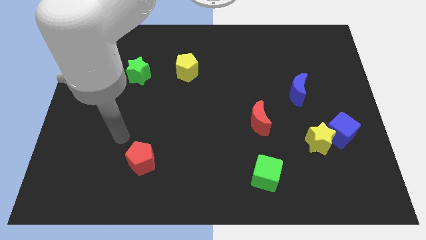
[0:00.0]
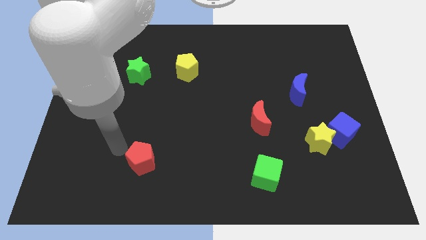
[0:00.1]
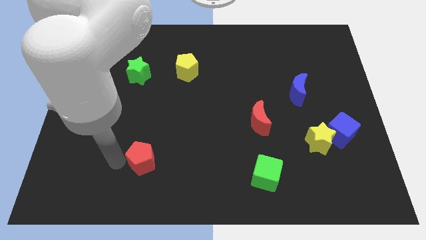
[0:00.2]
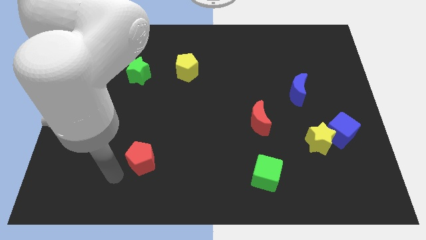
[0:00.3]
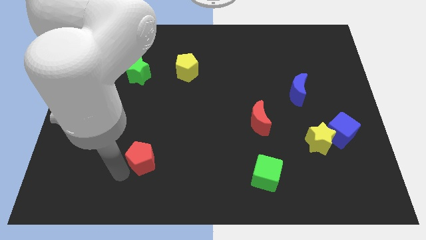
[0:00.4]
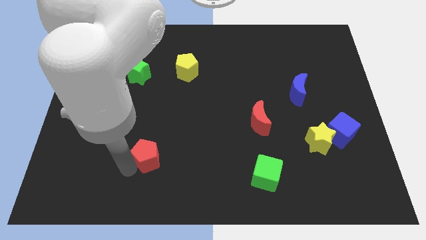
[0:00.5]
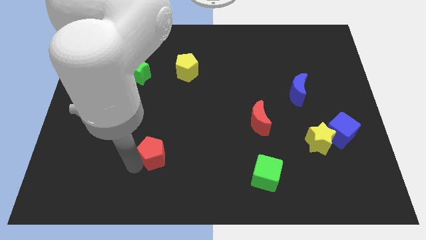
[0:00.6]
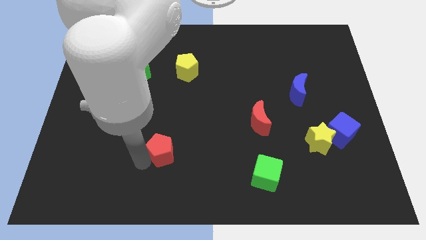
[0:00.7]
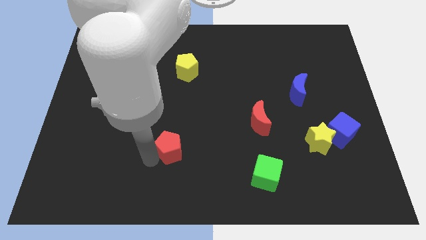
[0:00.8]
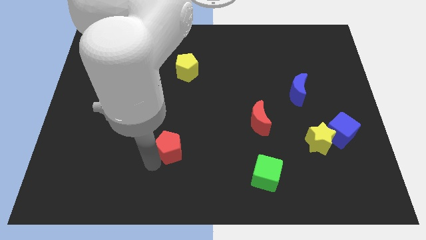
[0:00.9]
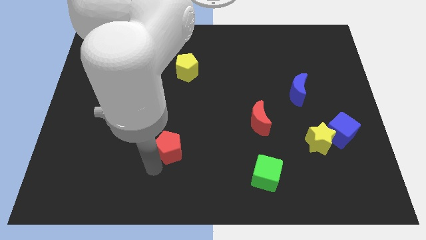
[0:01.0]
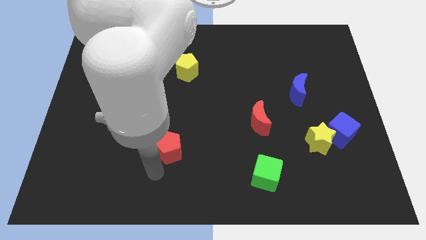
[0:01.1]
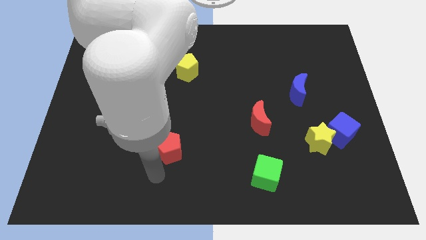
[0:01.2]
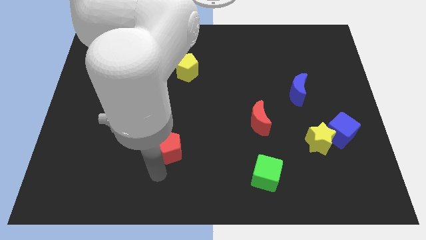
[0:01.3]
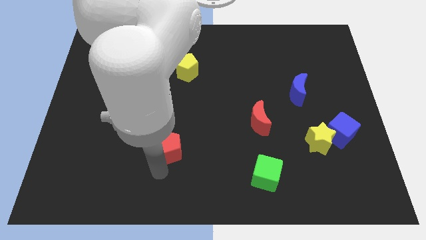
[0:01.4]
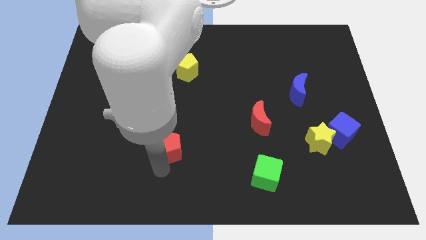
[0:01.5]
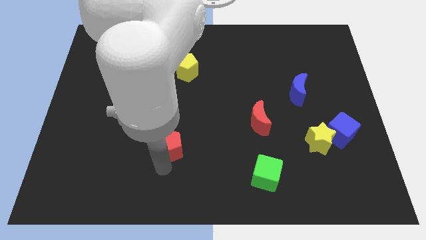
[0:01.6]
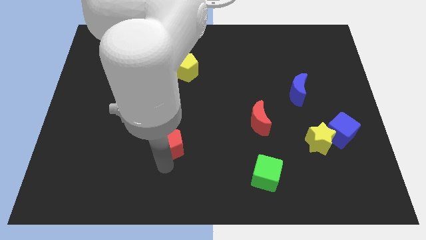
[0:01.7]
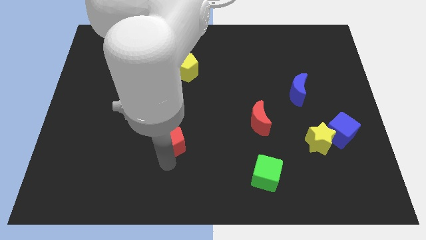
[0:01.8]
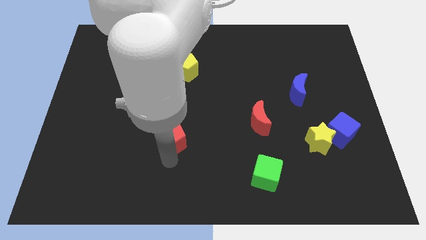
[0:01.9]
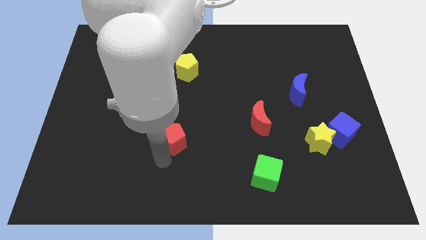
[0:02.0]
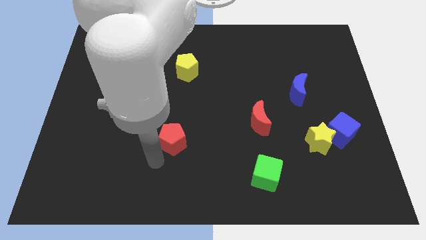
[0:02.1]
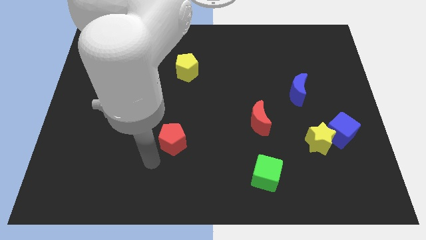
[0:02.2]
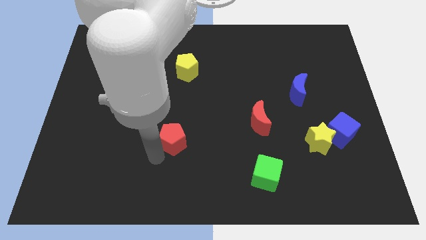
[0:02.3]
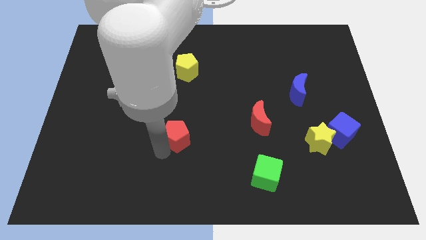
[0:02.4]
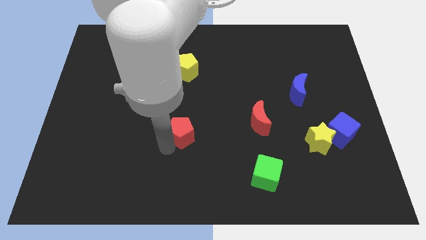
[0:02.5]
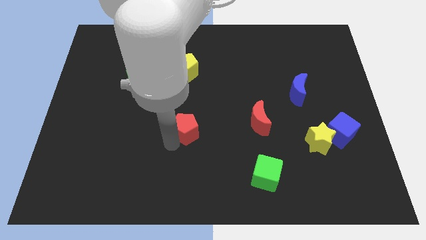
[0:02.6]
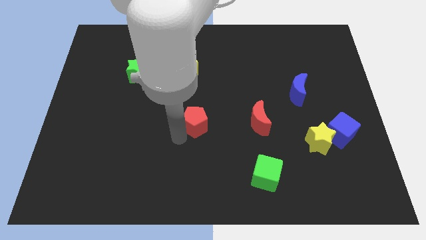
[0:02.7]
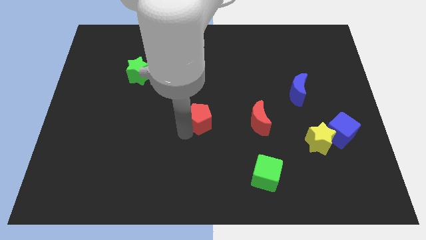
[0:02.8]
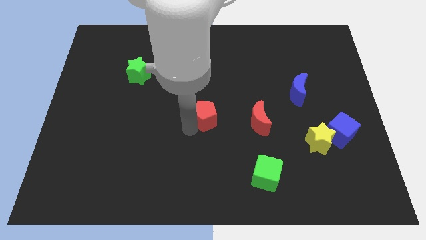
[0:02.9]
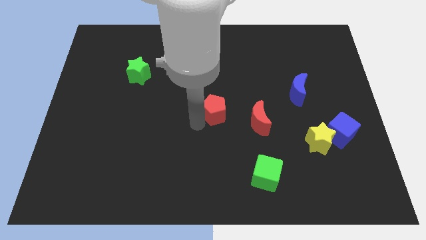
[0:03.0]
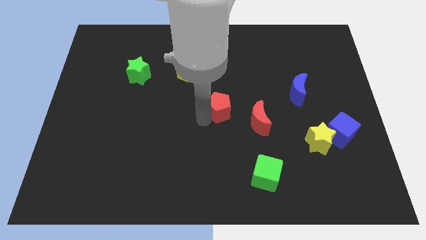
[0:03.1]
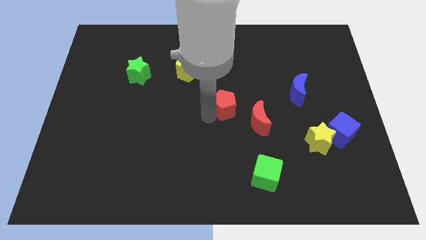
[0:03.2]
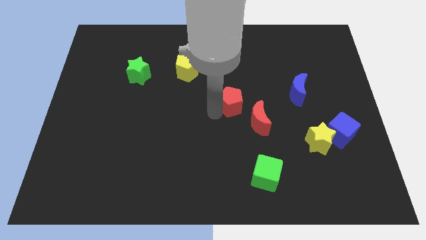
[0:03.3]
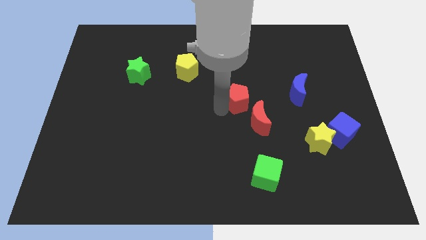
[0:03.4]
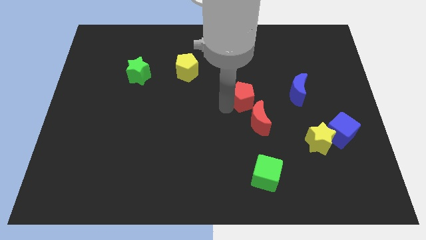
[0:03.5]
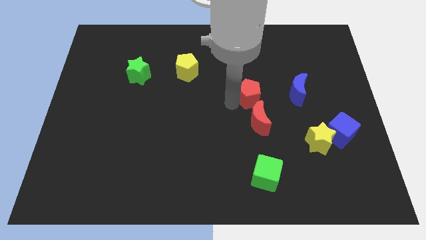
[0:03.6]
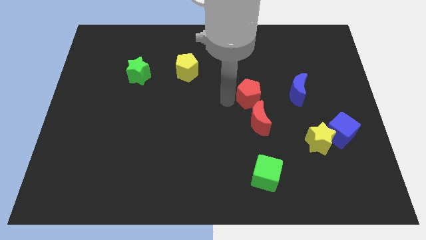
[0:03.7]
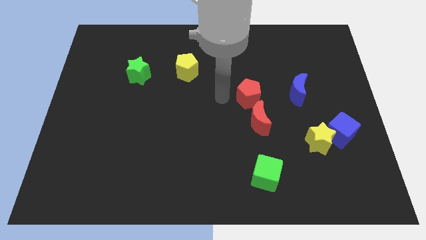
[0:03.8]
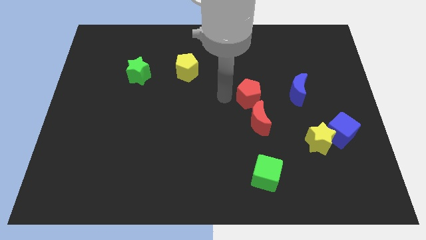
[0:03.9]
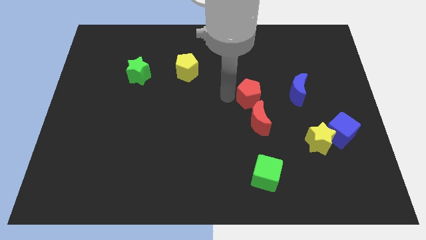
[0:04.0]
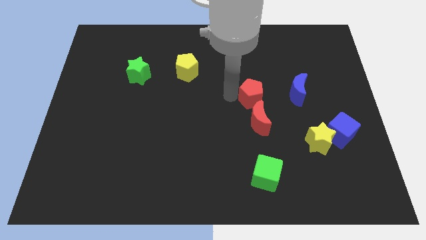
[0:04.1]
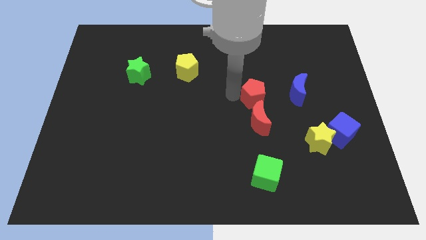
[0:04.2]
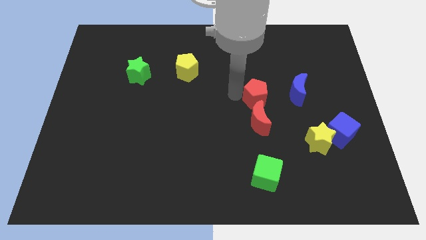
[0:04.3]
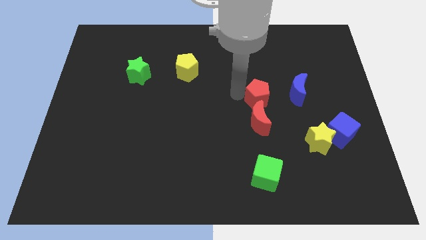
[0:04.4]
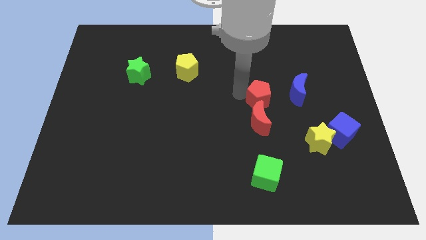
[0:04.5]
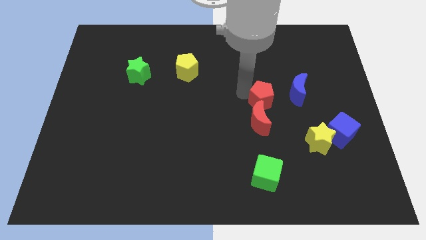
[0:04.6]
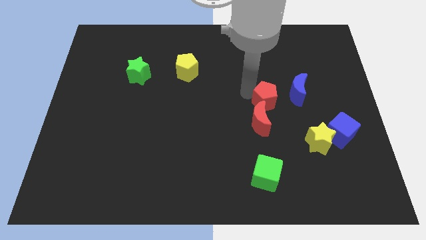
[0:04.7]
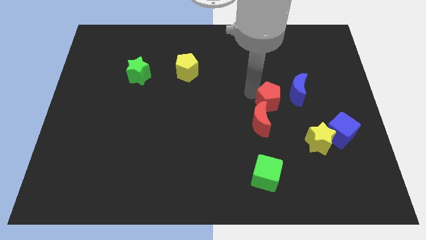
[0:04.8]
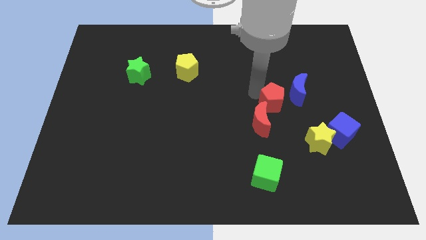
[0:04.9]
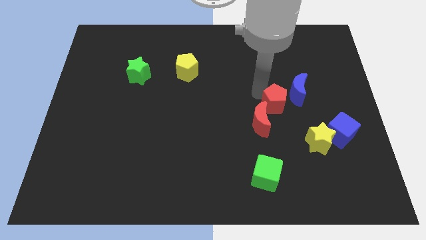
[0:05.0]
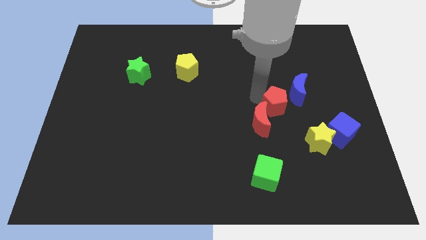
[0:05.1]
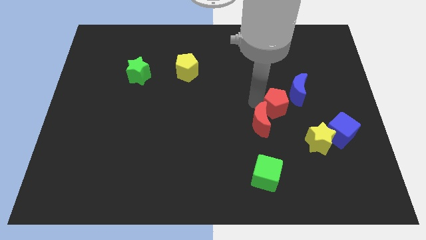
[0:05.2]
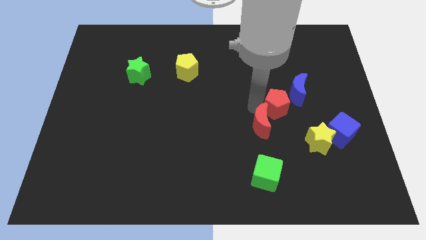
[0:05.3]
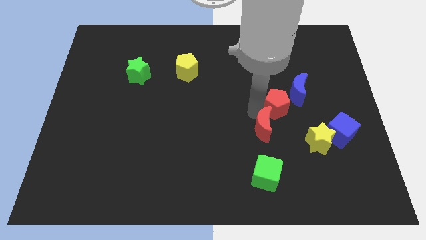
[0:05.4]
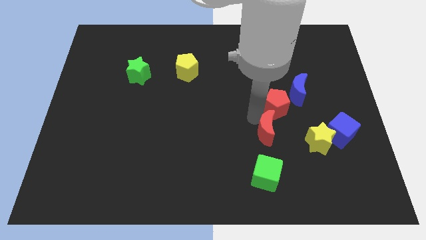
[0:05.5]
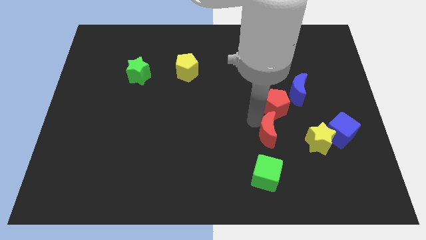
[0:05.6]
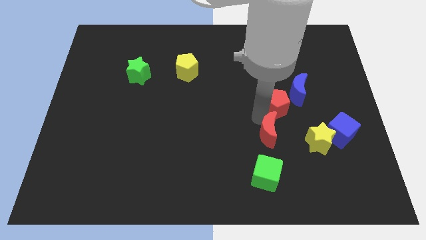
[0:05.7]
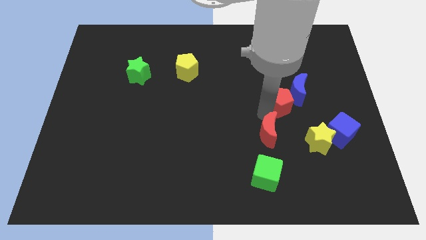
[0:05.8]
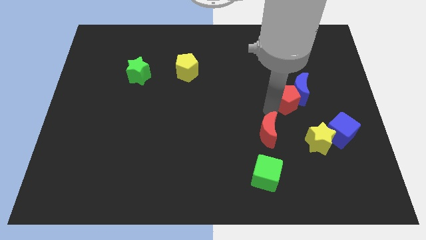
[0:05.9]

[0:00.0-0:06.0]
put the red pentagon close to the blue moon

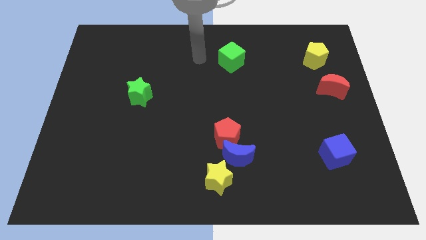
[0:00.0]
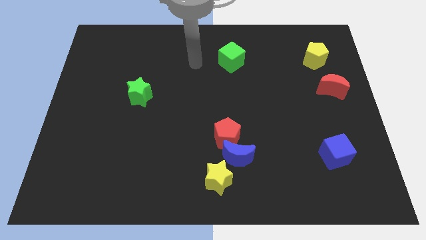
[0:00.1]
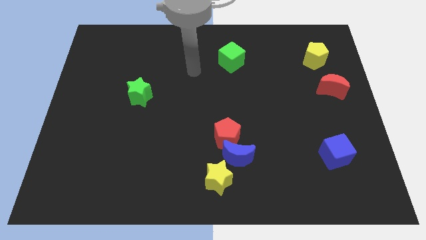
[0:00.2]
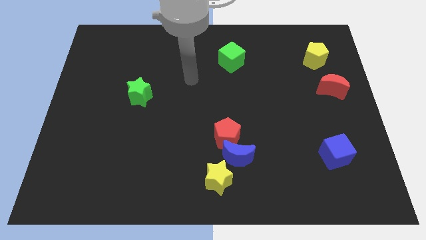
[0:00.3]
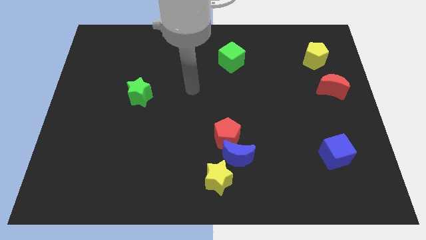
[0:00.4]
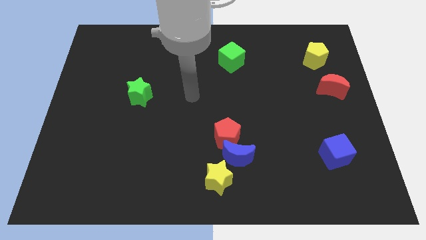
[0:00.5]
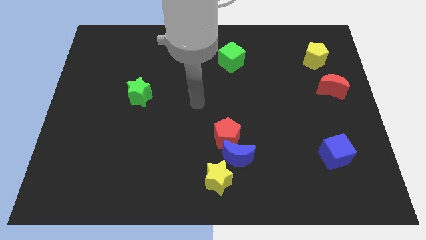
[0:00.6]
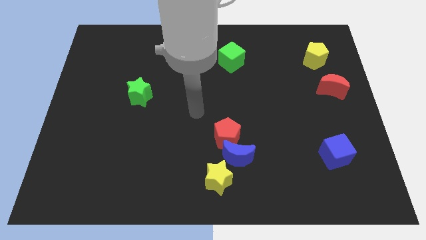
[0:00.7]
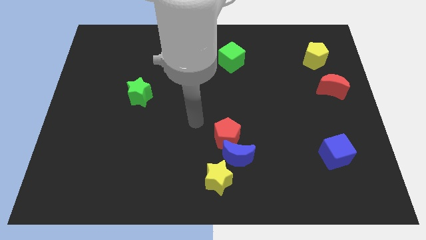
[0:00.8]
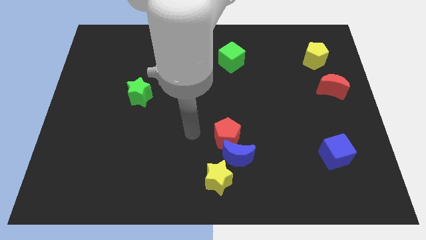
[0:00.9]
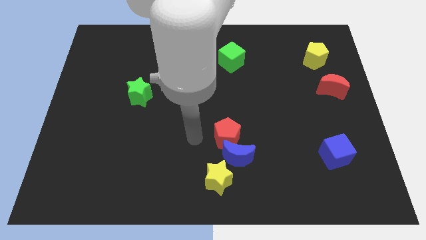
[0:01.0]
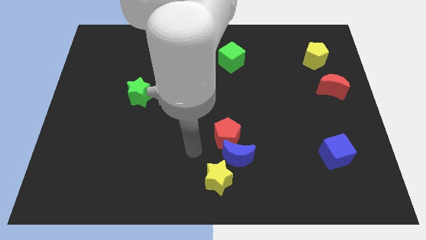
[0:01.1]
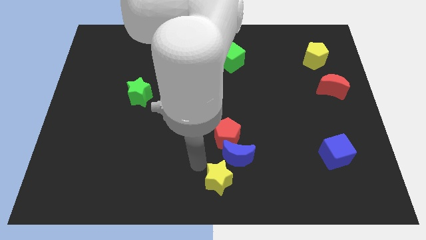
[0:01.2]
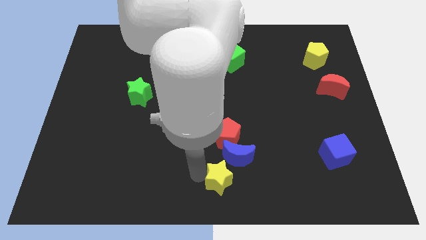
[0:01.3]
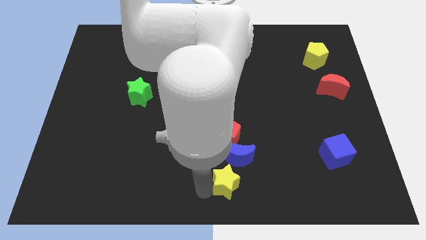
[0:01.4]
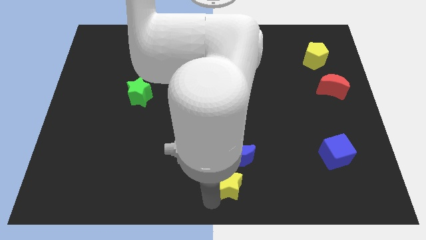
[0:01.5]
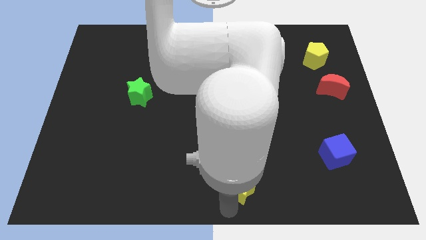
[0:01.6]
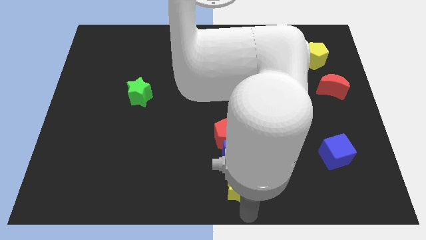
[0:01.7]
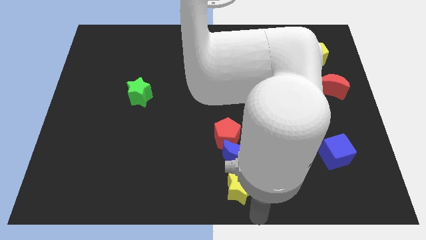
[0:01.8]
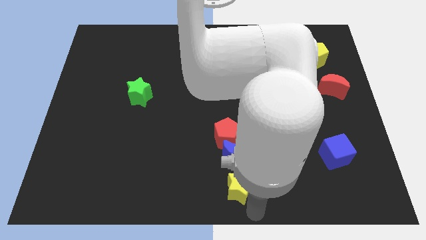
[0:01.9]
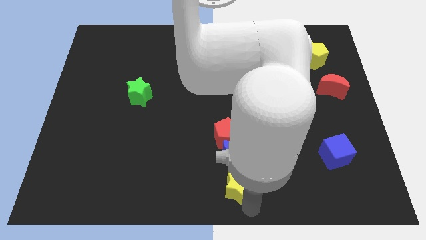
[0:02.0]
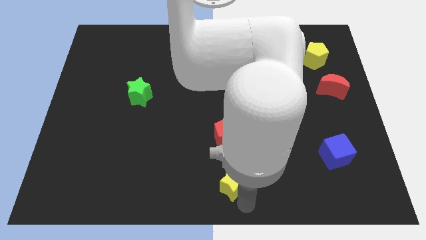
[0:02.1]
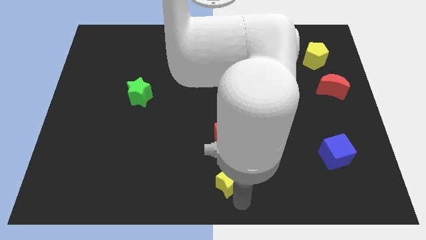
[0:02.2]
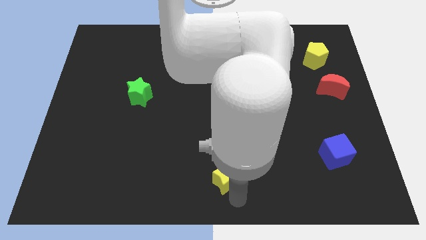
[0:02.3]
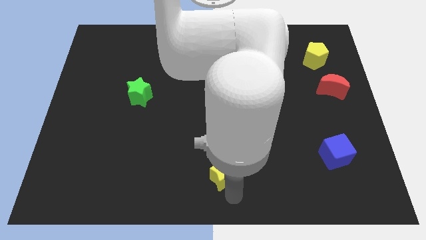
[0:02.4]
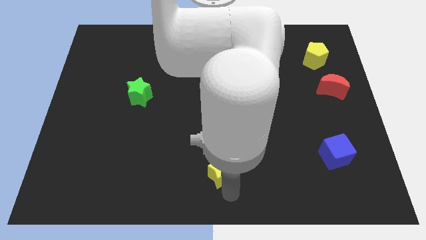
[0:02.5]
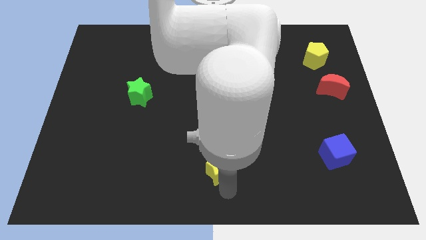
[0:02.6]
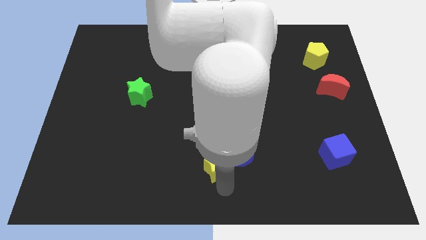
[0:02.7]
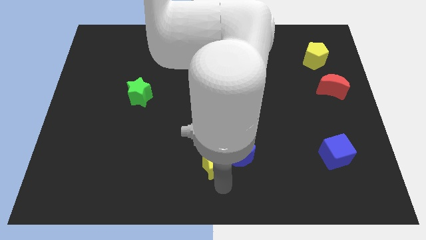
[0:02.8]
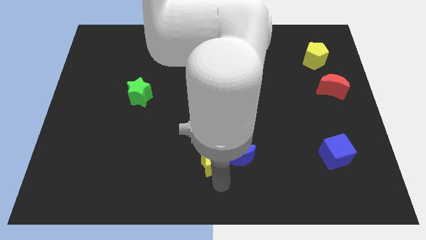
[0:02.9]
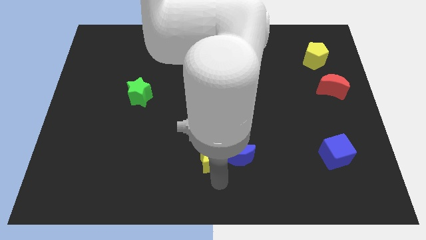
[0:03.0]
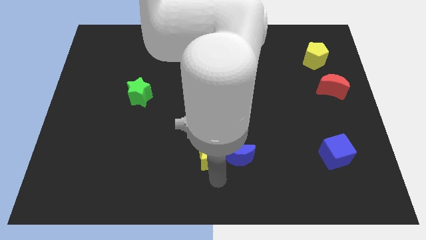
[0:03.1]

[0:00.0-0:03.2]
push the yellow star next to the red pentagon
